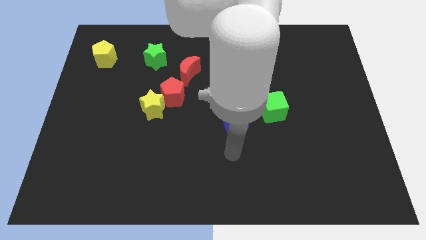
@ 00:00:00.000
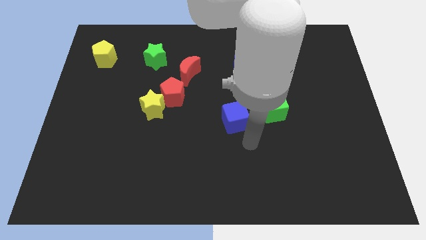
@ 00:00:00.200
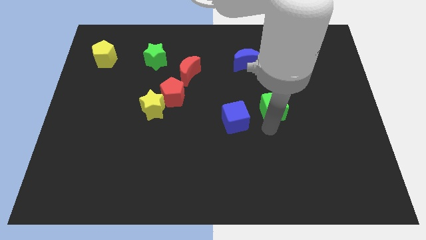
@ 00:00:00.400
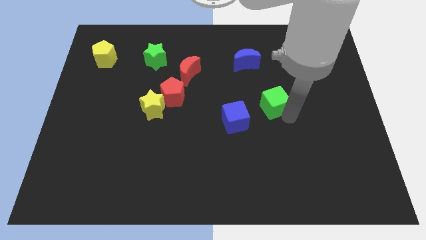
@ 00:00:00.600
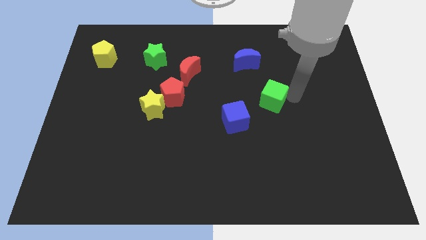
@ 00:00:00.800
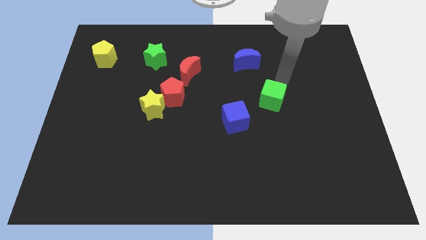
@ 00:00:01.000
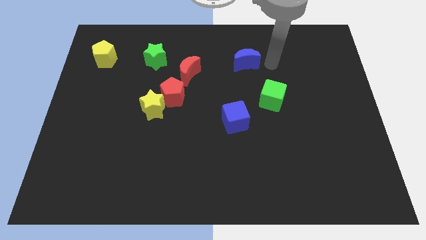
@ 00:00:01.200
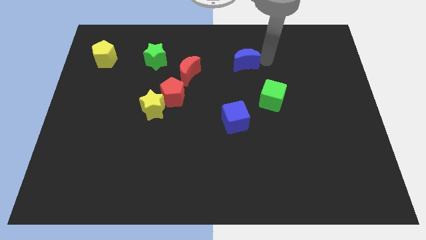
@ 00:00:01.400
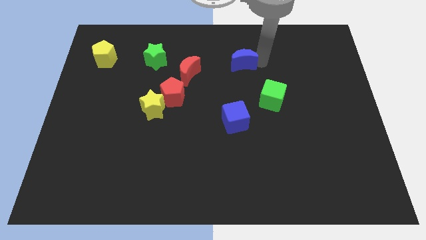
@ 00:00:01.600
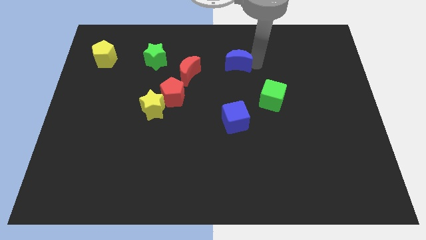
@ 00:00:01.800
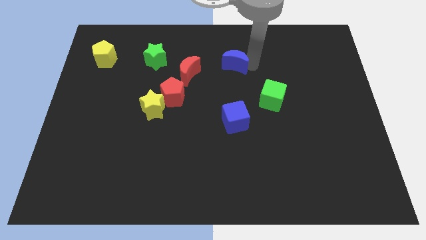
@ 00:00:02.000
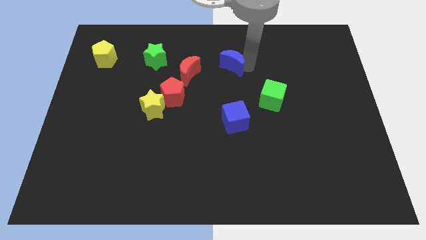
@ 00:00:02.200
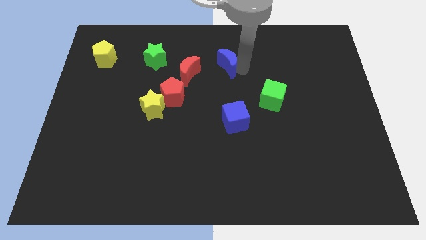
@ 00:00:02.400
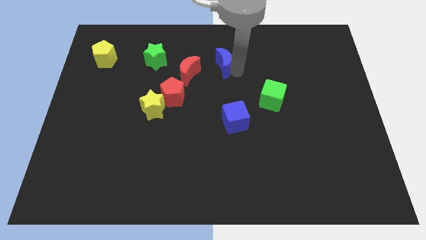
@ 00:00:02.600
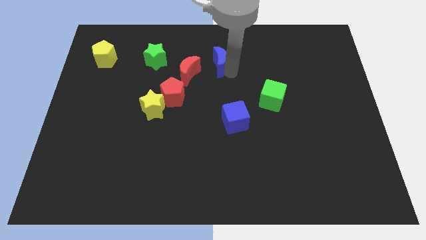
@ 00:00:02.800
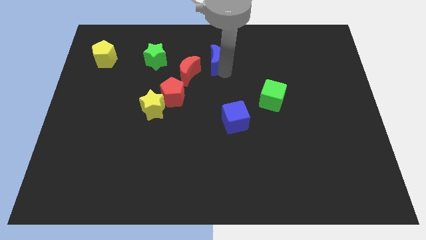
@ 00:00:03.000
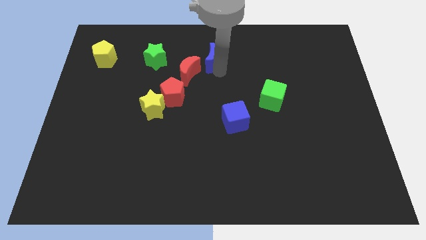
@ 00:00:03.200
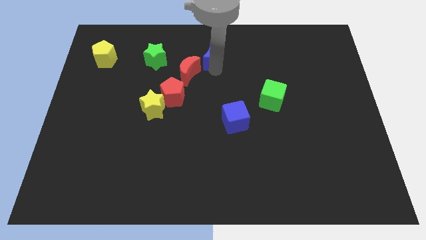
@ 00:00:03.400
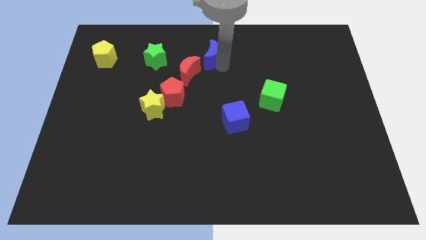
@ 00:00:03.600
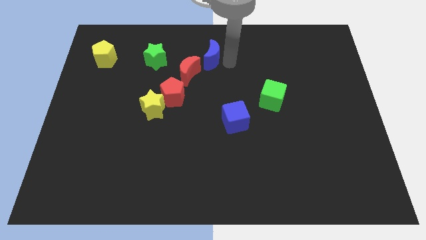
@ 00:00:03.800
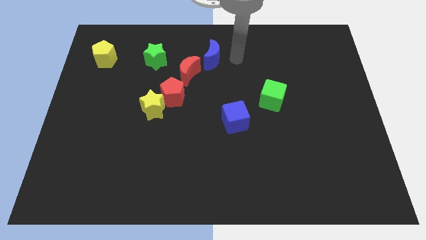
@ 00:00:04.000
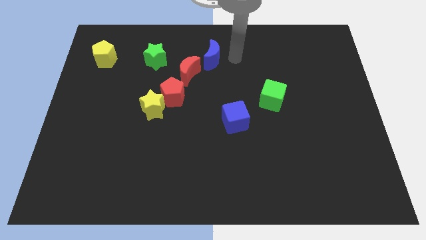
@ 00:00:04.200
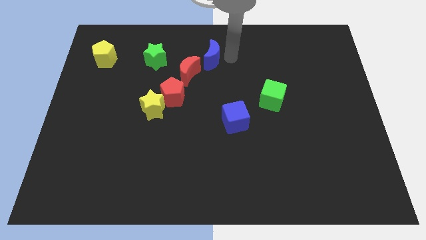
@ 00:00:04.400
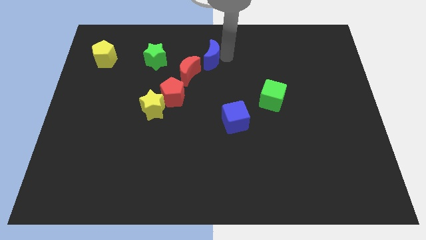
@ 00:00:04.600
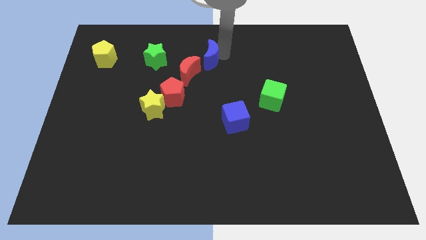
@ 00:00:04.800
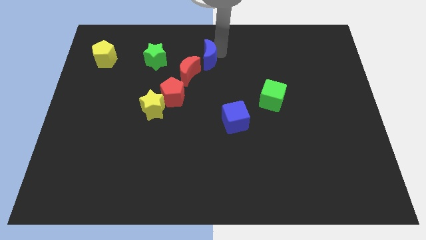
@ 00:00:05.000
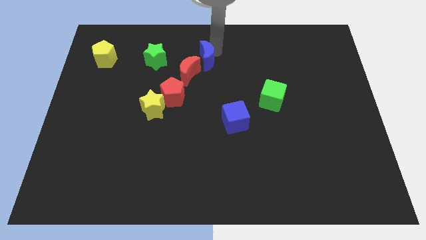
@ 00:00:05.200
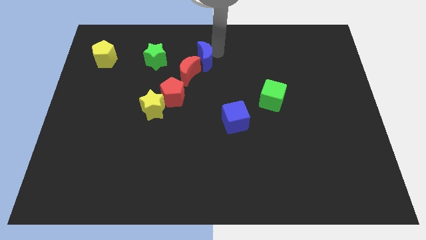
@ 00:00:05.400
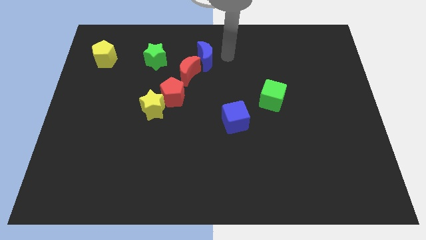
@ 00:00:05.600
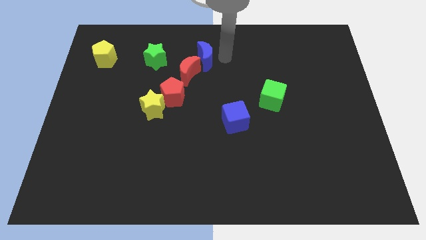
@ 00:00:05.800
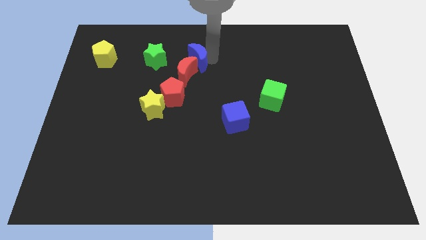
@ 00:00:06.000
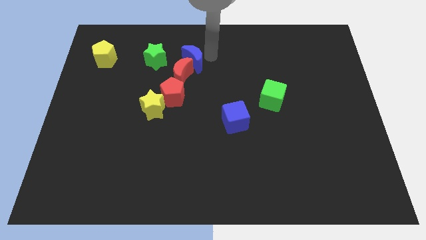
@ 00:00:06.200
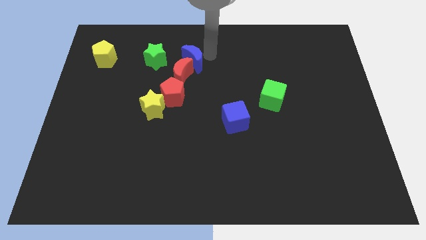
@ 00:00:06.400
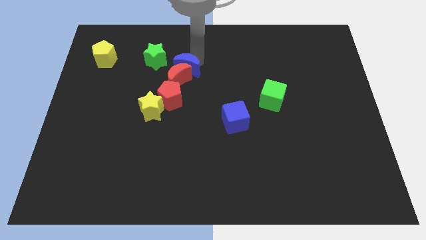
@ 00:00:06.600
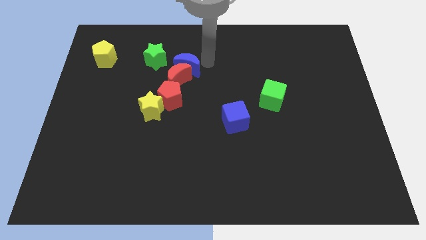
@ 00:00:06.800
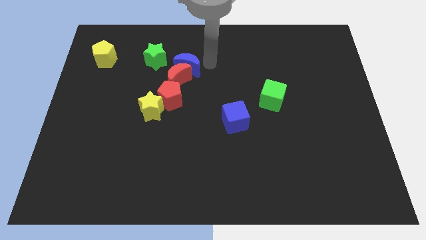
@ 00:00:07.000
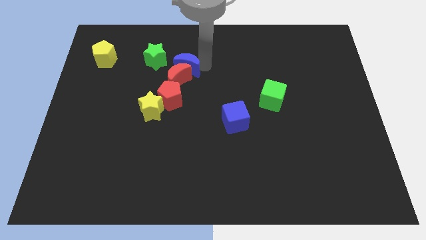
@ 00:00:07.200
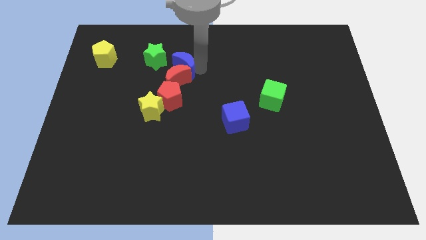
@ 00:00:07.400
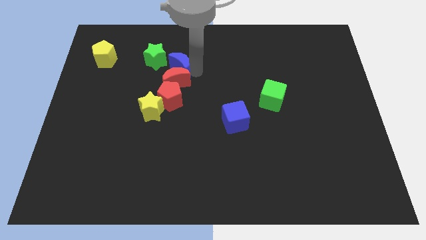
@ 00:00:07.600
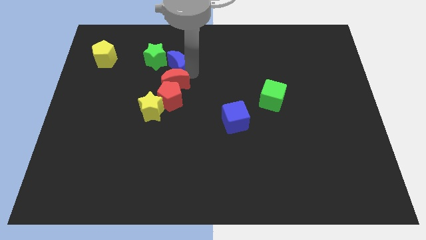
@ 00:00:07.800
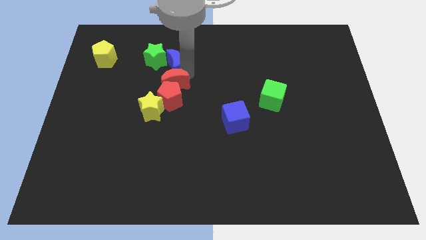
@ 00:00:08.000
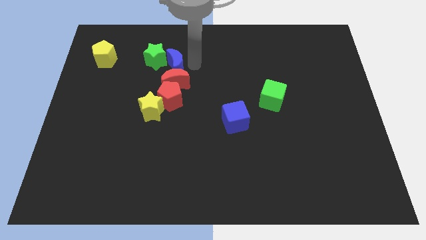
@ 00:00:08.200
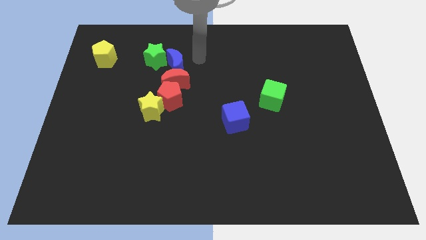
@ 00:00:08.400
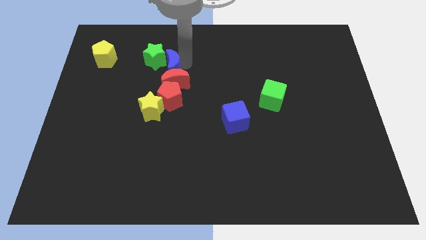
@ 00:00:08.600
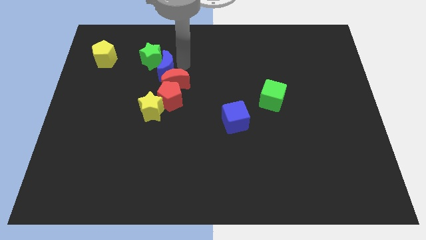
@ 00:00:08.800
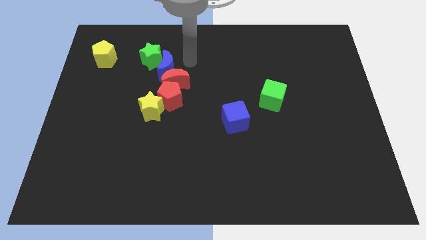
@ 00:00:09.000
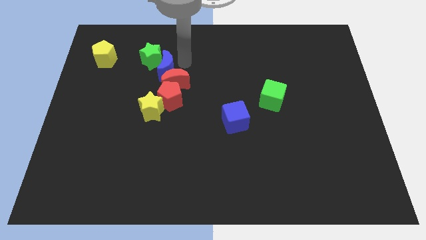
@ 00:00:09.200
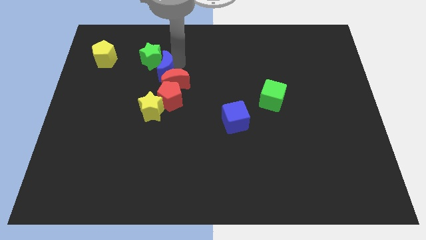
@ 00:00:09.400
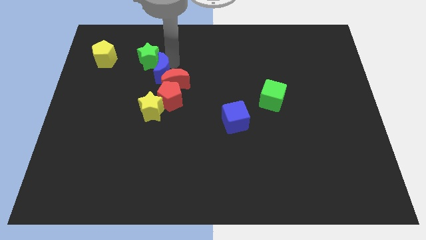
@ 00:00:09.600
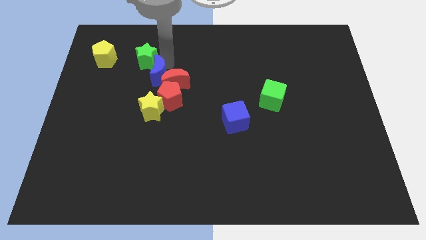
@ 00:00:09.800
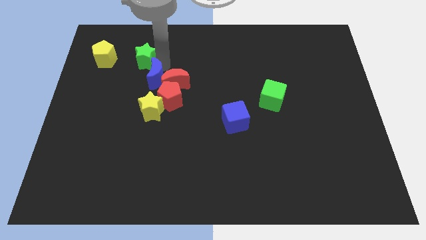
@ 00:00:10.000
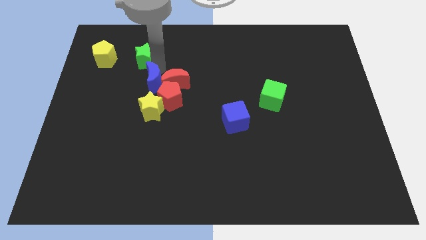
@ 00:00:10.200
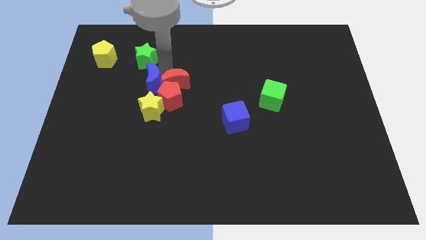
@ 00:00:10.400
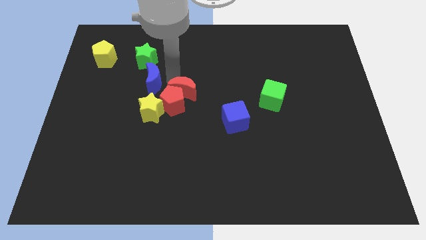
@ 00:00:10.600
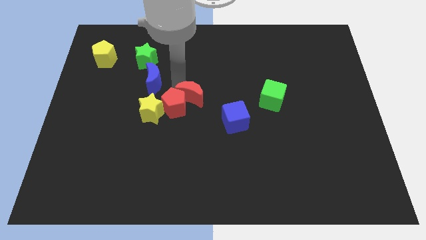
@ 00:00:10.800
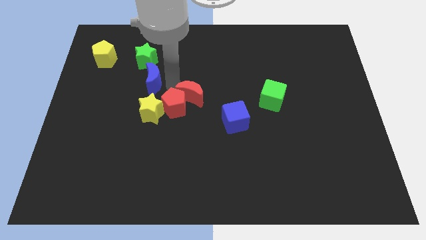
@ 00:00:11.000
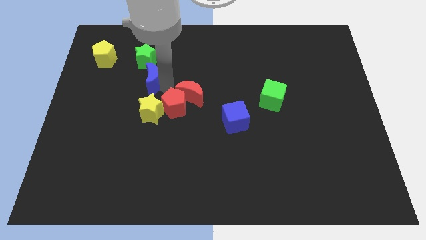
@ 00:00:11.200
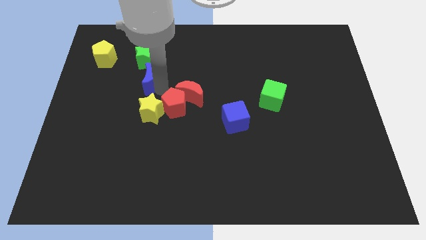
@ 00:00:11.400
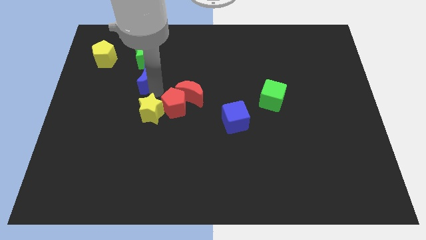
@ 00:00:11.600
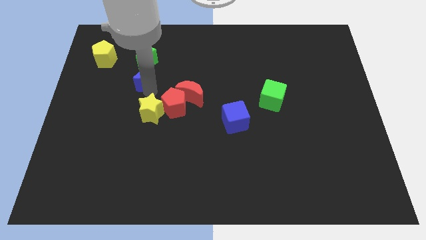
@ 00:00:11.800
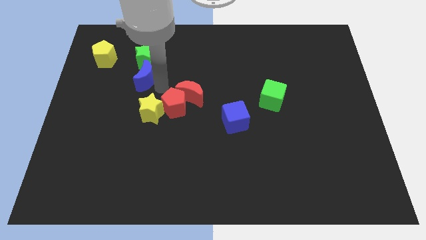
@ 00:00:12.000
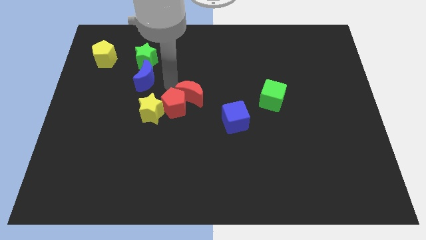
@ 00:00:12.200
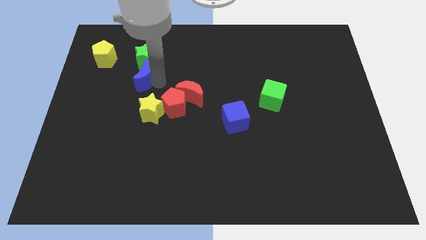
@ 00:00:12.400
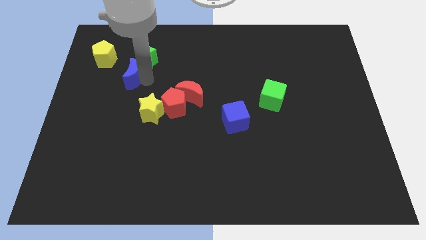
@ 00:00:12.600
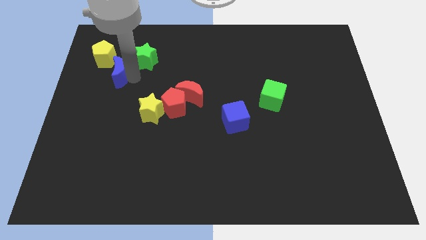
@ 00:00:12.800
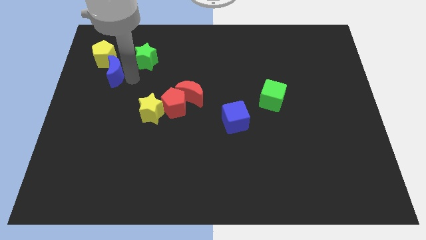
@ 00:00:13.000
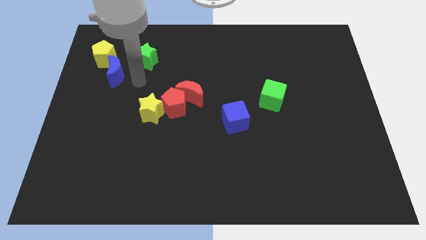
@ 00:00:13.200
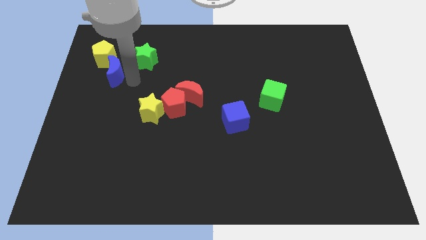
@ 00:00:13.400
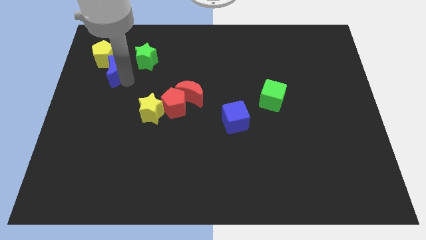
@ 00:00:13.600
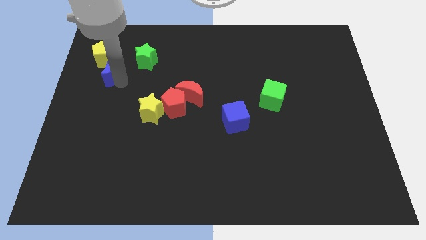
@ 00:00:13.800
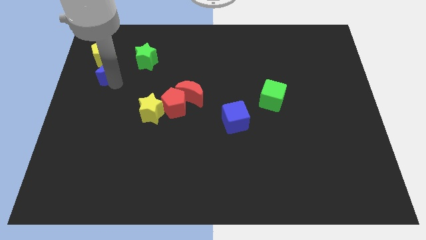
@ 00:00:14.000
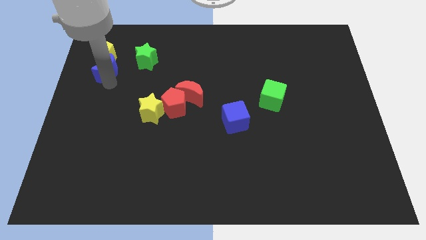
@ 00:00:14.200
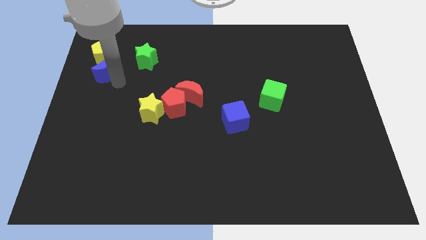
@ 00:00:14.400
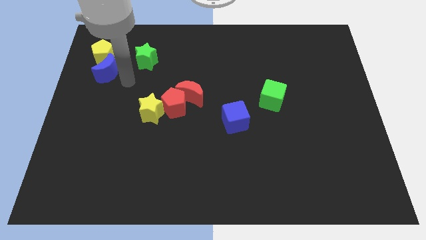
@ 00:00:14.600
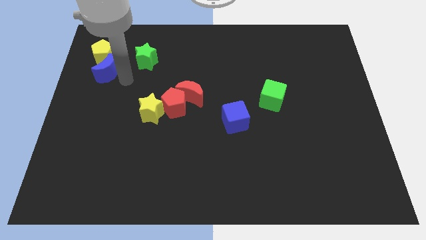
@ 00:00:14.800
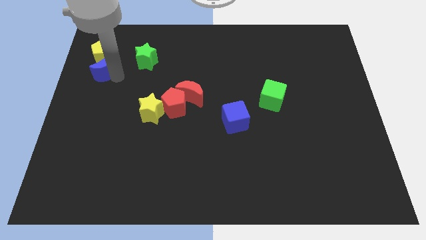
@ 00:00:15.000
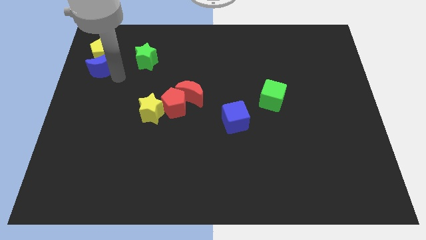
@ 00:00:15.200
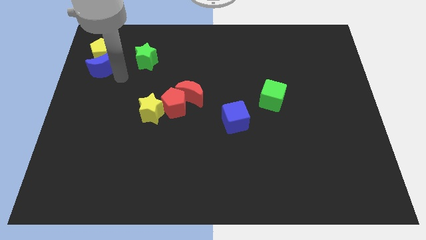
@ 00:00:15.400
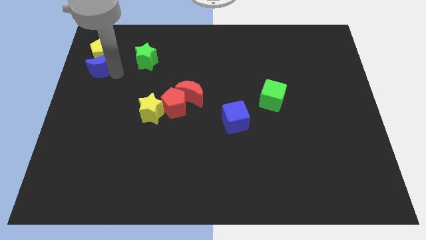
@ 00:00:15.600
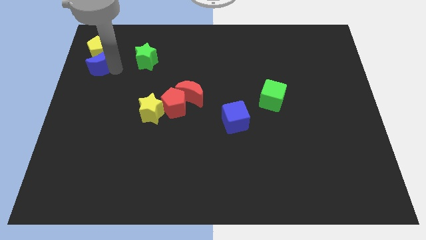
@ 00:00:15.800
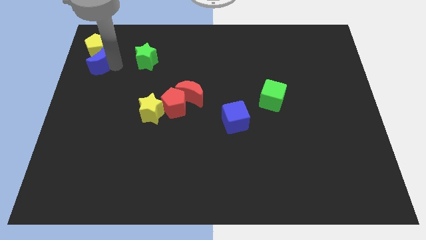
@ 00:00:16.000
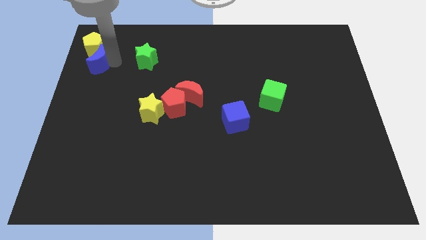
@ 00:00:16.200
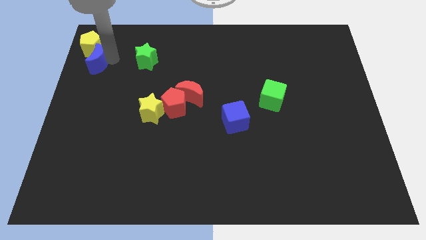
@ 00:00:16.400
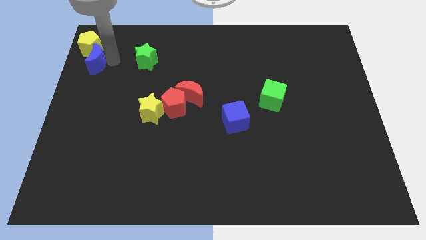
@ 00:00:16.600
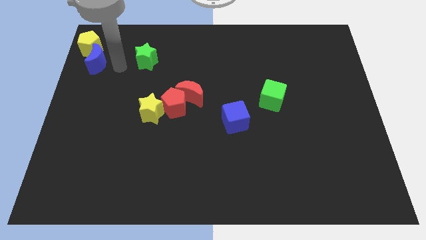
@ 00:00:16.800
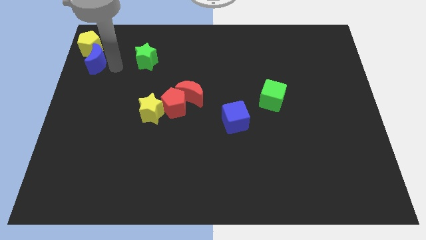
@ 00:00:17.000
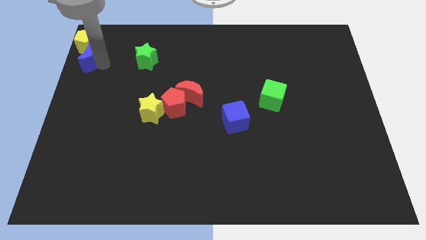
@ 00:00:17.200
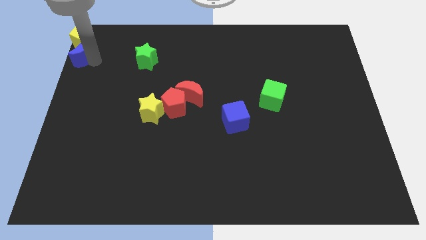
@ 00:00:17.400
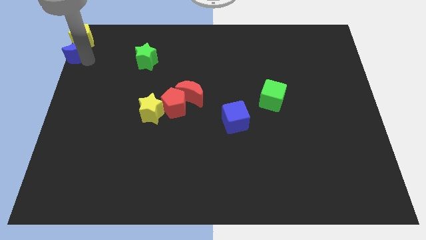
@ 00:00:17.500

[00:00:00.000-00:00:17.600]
move the blue moon to the upper left corner
